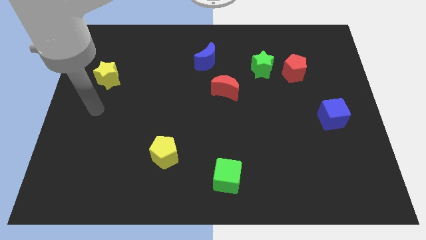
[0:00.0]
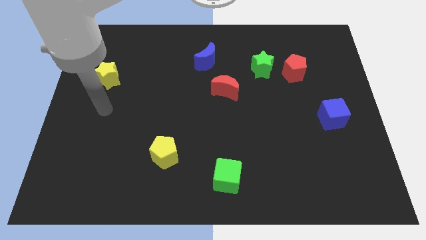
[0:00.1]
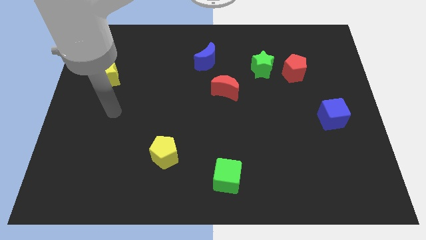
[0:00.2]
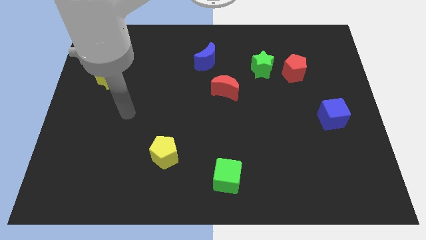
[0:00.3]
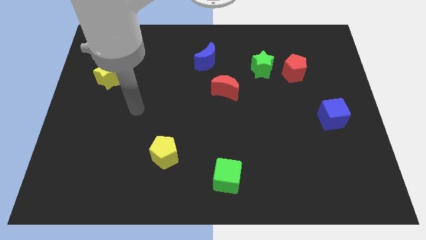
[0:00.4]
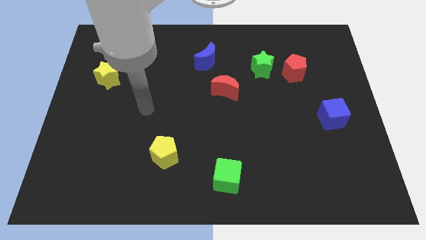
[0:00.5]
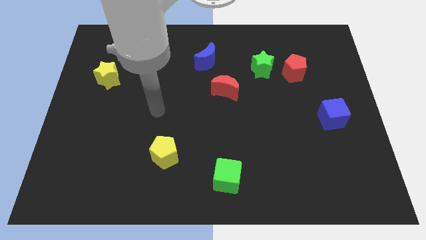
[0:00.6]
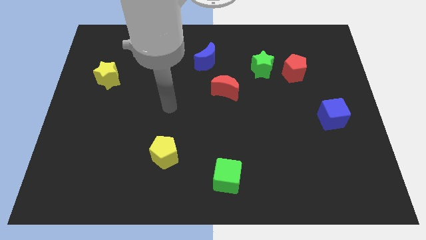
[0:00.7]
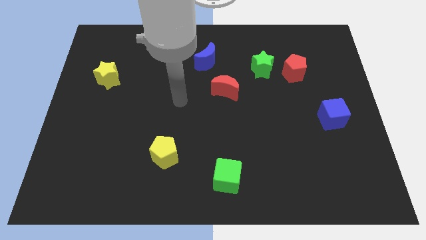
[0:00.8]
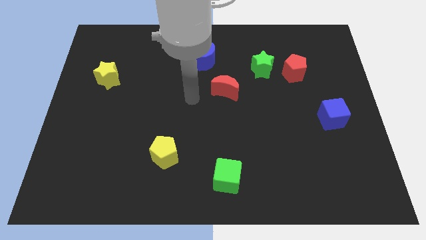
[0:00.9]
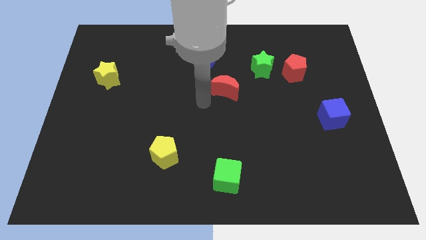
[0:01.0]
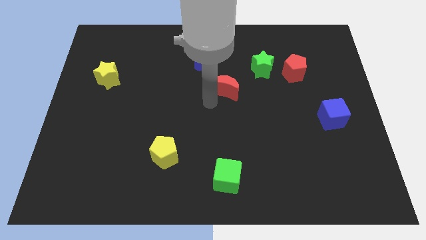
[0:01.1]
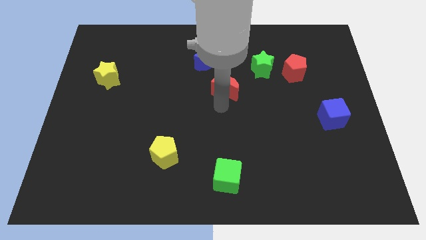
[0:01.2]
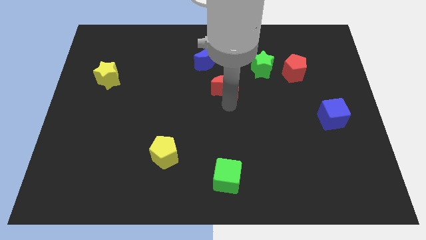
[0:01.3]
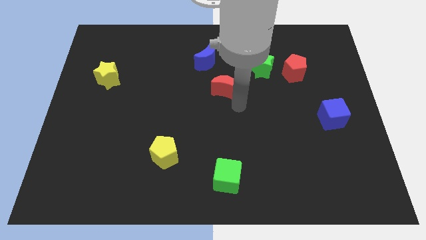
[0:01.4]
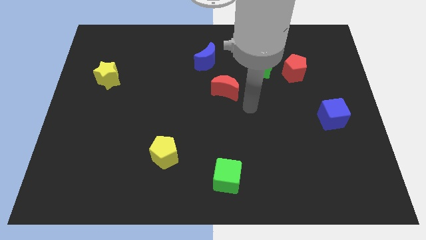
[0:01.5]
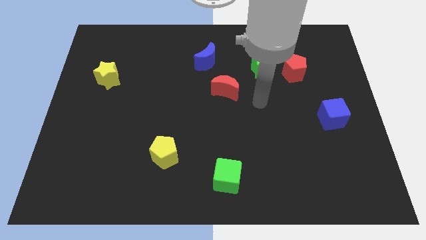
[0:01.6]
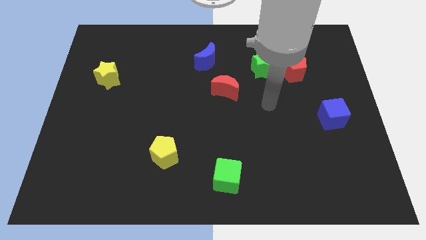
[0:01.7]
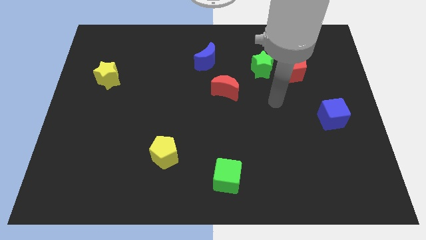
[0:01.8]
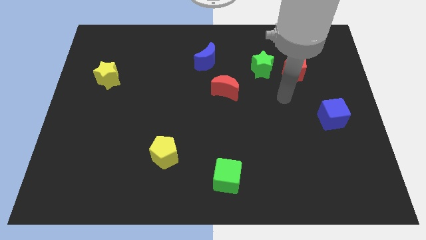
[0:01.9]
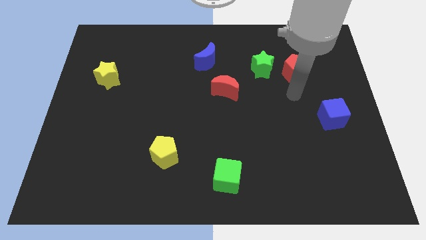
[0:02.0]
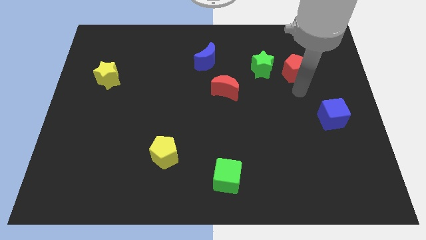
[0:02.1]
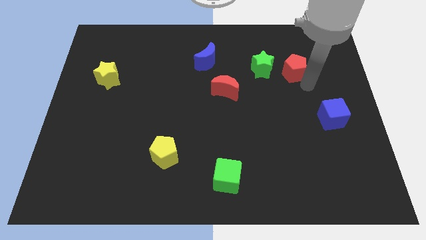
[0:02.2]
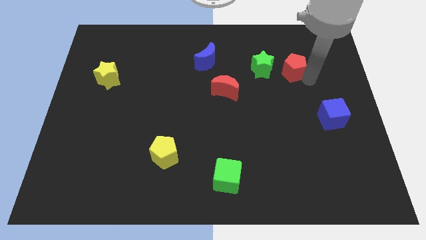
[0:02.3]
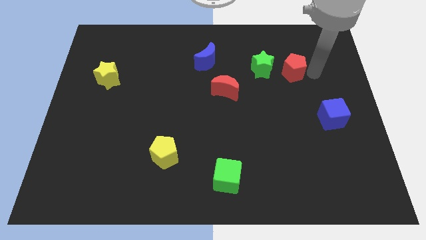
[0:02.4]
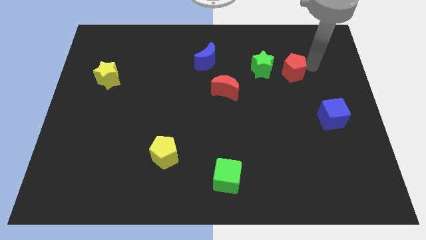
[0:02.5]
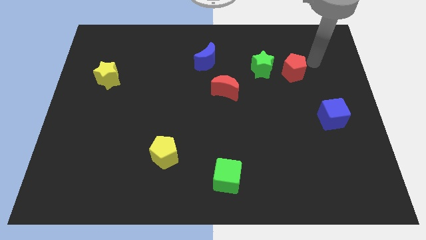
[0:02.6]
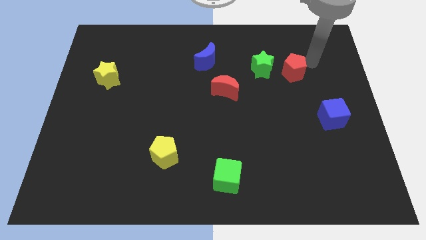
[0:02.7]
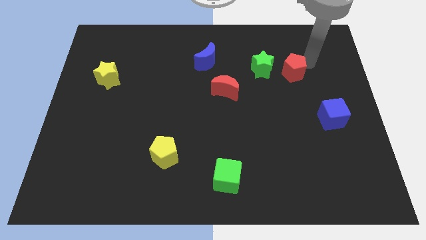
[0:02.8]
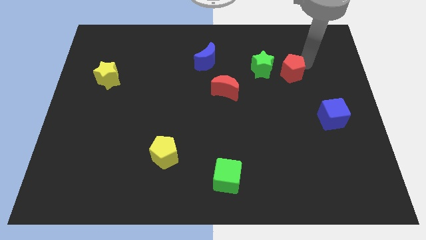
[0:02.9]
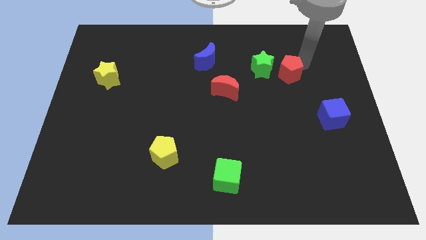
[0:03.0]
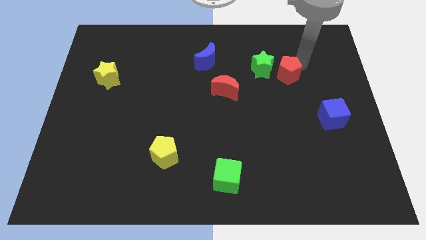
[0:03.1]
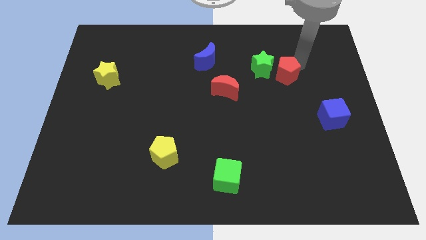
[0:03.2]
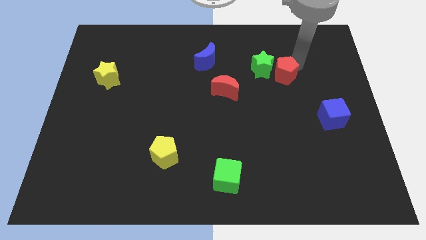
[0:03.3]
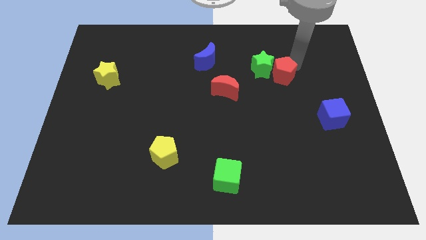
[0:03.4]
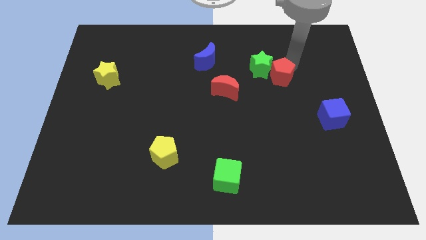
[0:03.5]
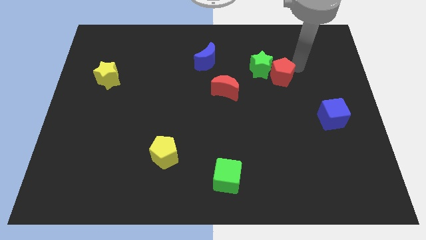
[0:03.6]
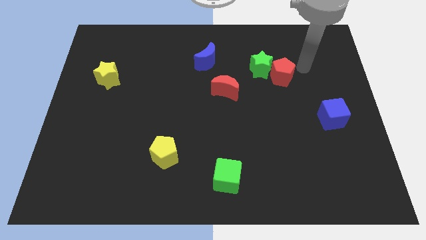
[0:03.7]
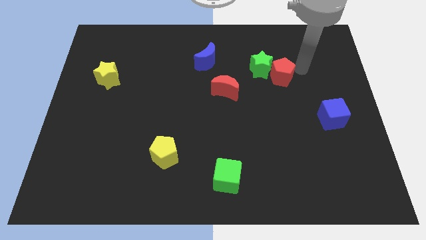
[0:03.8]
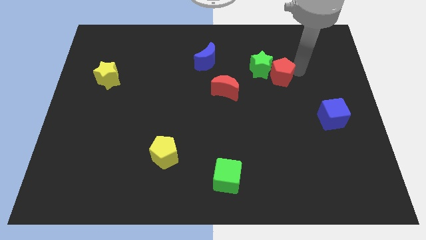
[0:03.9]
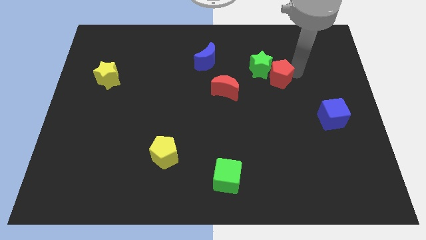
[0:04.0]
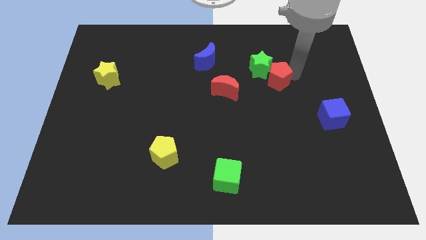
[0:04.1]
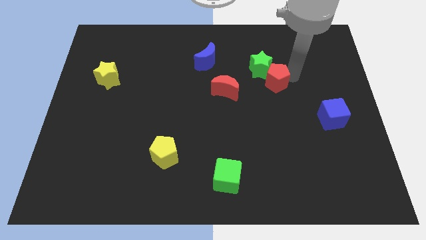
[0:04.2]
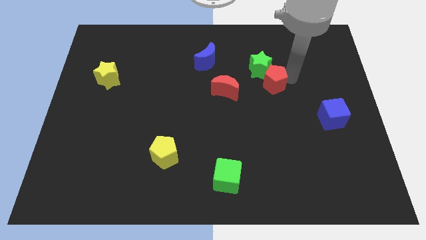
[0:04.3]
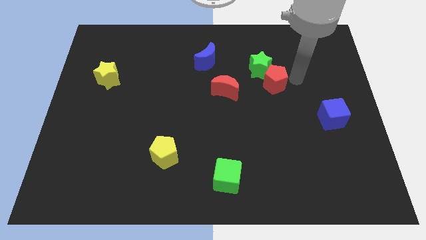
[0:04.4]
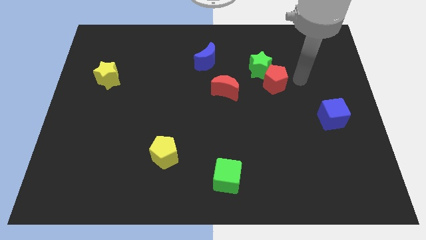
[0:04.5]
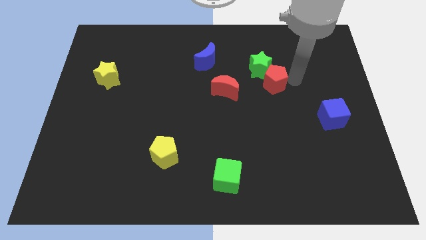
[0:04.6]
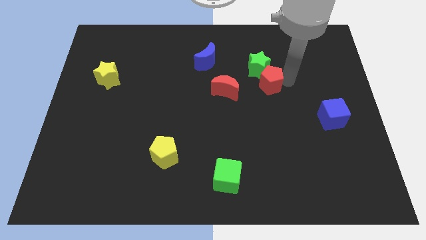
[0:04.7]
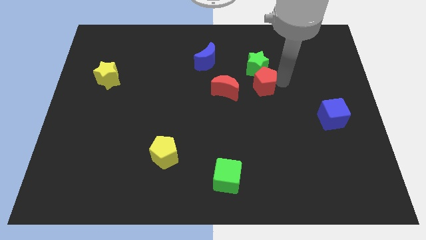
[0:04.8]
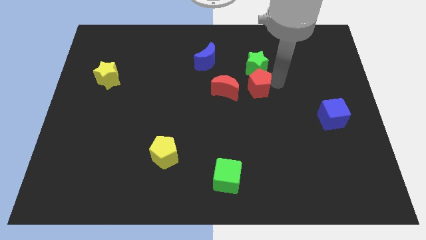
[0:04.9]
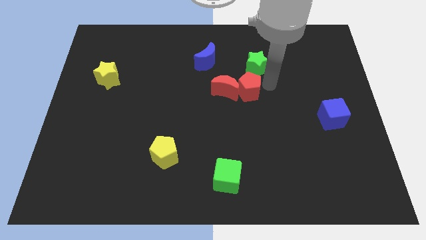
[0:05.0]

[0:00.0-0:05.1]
move the red pentagon towards the red moon

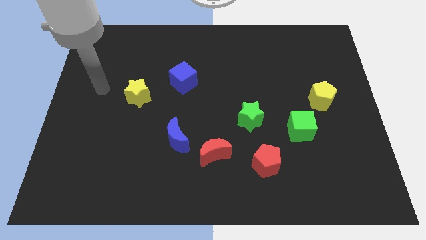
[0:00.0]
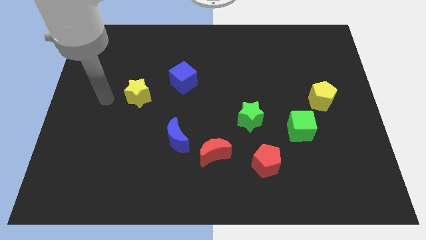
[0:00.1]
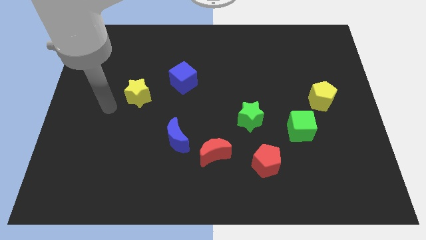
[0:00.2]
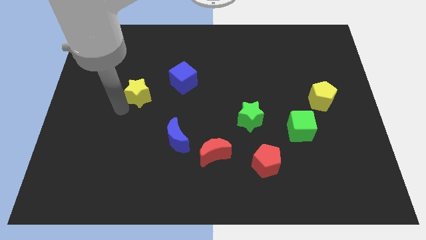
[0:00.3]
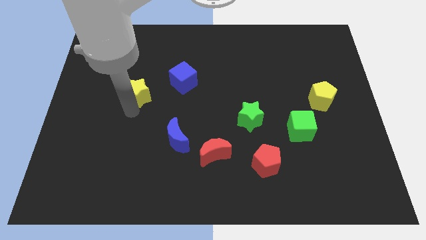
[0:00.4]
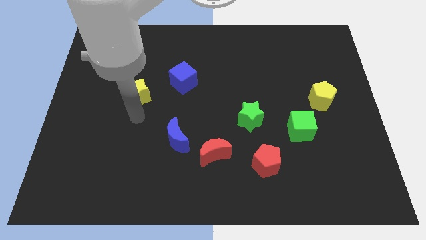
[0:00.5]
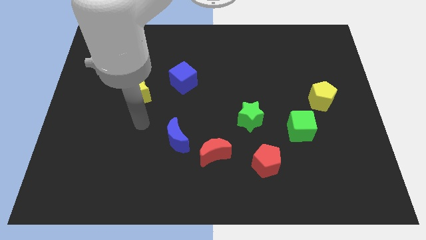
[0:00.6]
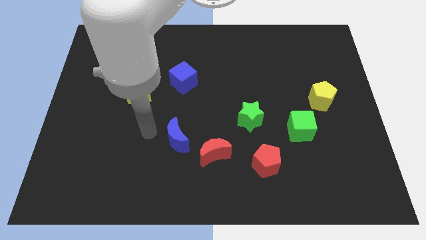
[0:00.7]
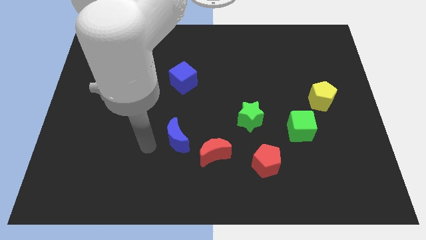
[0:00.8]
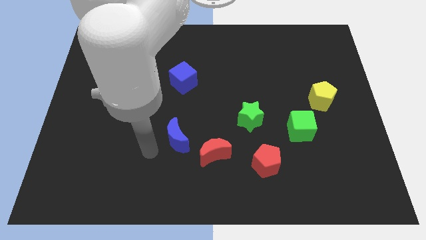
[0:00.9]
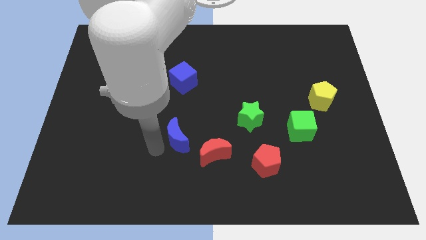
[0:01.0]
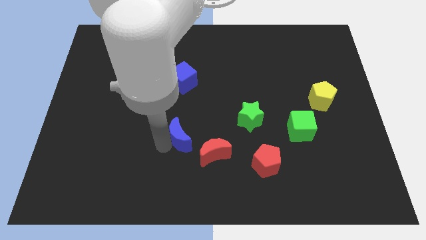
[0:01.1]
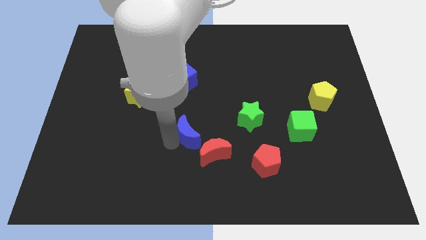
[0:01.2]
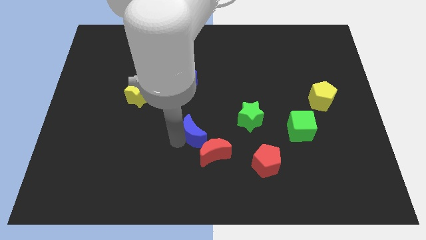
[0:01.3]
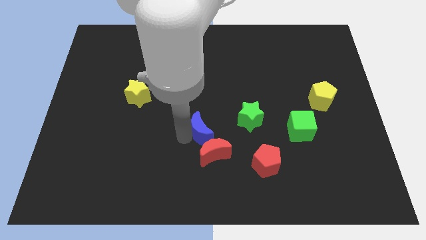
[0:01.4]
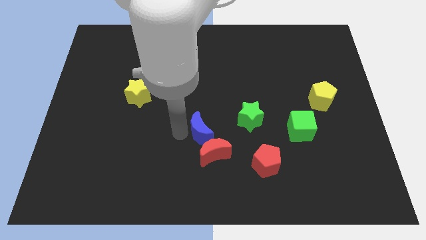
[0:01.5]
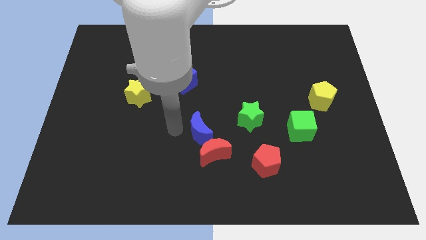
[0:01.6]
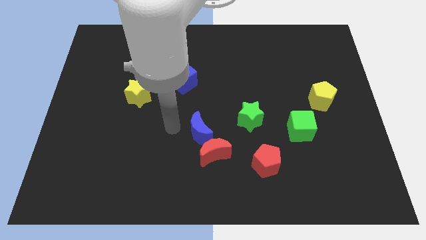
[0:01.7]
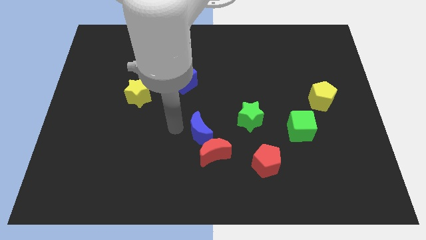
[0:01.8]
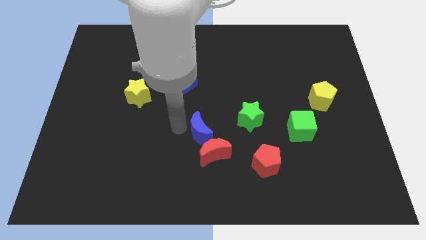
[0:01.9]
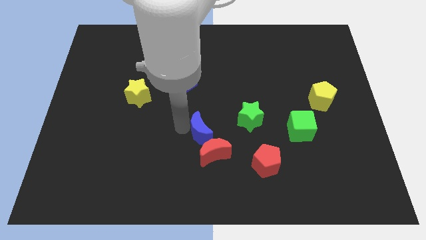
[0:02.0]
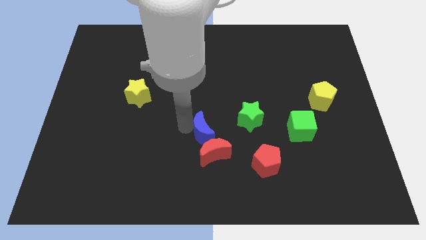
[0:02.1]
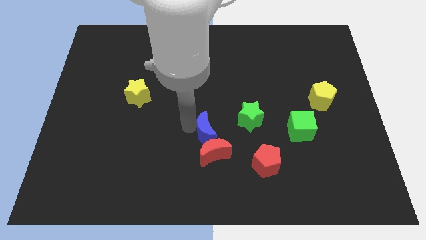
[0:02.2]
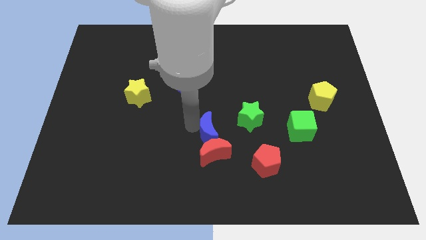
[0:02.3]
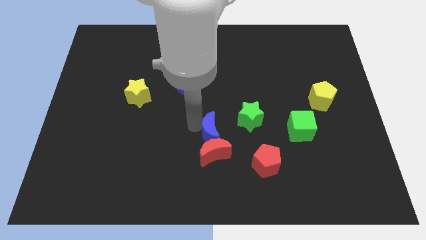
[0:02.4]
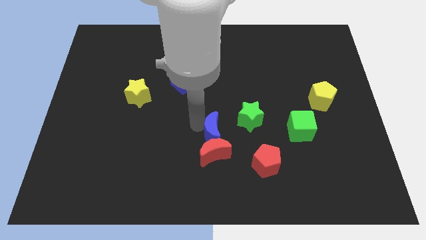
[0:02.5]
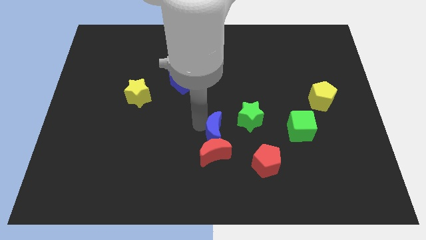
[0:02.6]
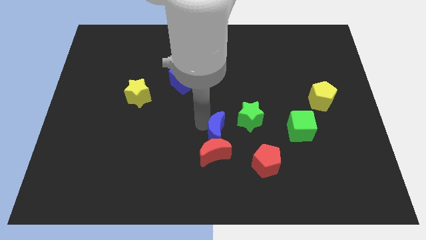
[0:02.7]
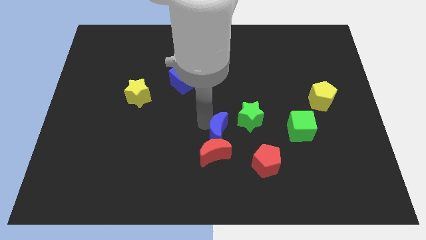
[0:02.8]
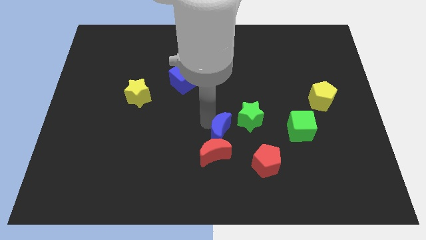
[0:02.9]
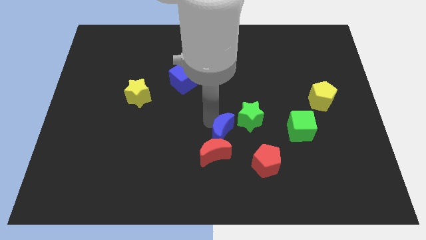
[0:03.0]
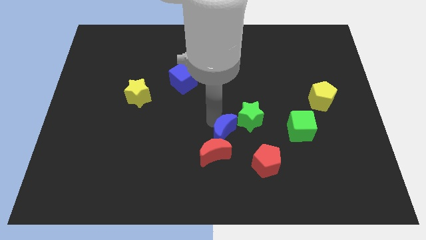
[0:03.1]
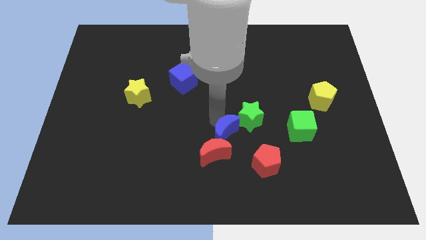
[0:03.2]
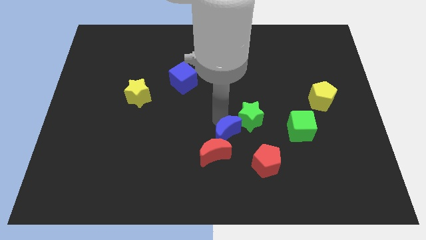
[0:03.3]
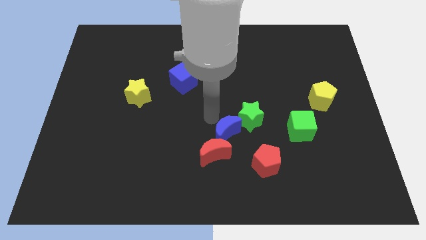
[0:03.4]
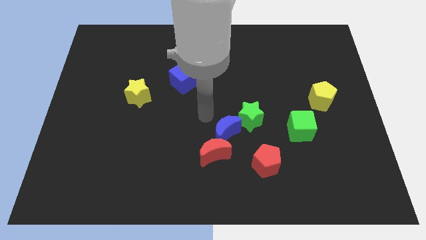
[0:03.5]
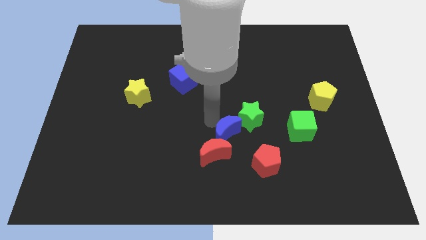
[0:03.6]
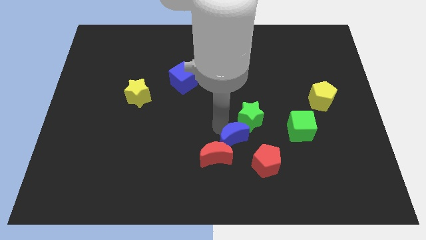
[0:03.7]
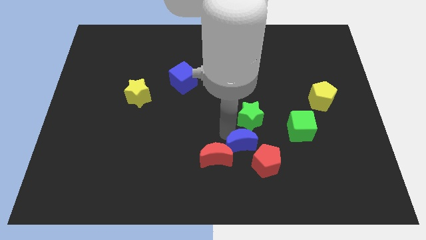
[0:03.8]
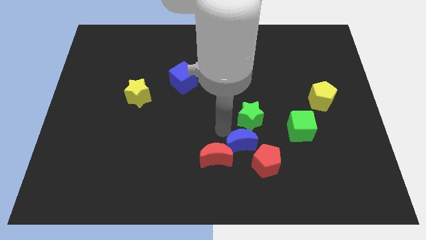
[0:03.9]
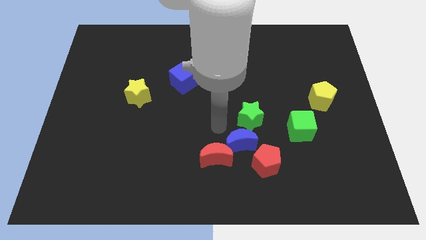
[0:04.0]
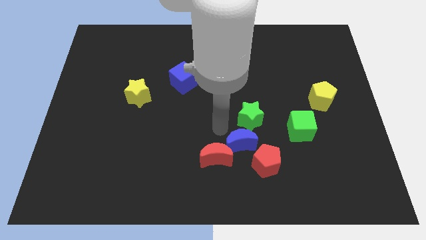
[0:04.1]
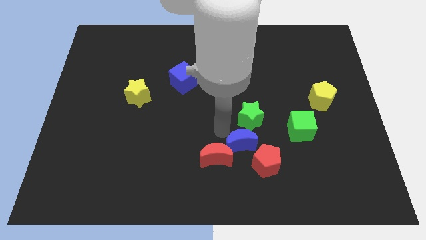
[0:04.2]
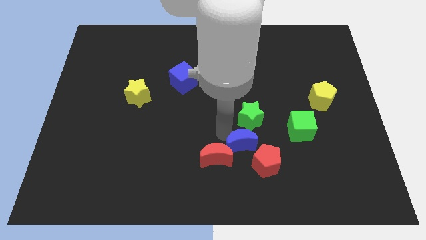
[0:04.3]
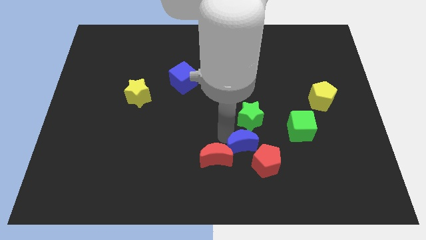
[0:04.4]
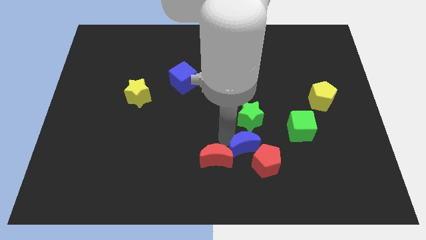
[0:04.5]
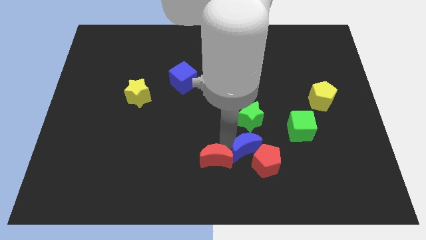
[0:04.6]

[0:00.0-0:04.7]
push the blue moon towards the red pentagon
